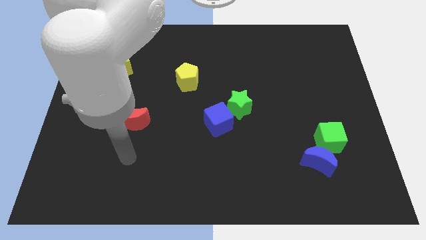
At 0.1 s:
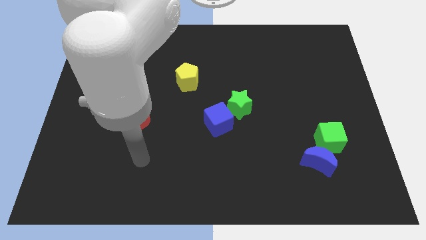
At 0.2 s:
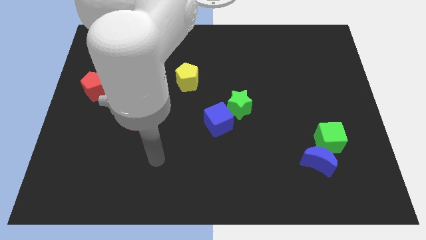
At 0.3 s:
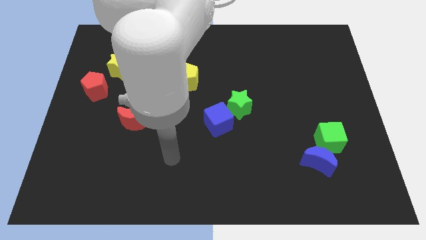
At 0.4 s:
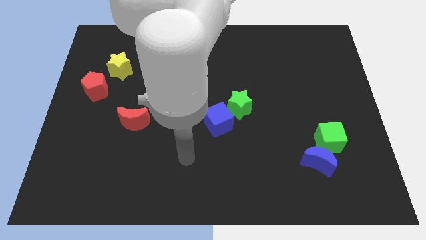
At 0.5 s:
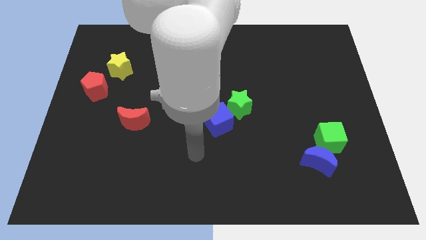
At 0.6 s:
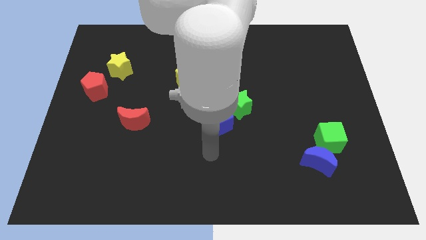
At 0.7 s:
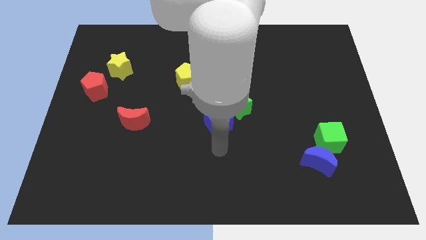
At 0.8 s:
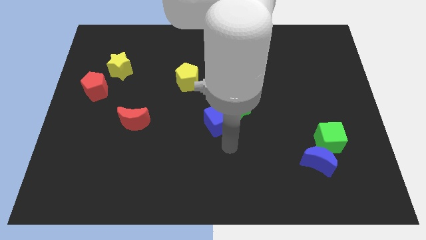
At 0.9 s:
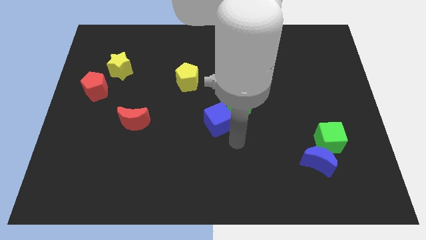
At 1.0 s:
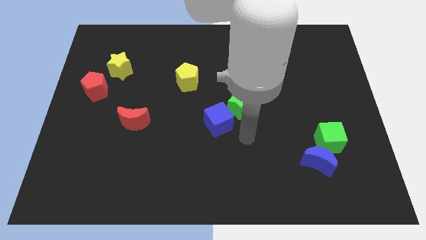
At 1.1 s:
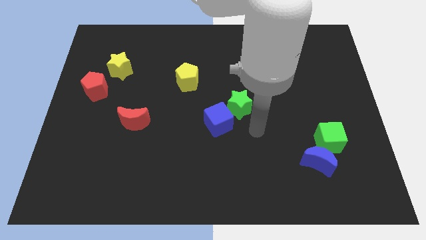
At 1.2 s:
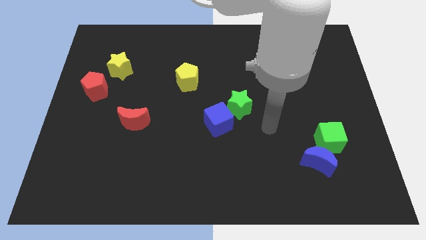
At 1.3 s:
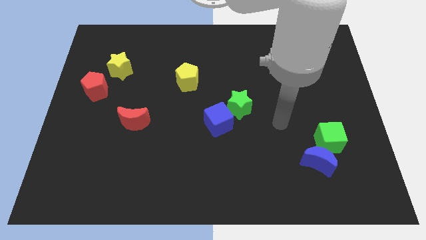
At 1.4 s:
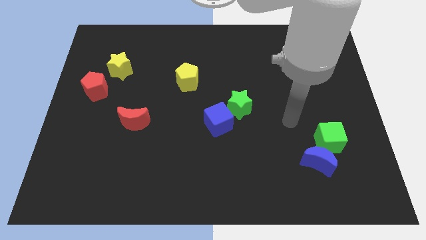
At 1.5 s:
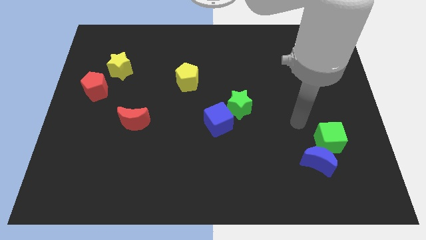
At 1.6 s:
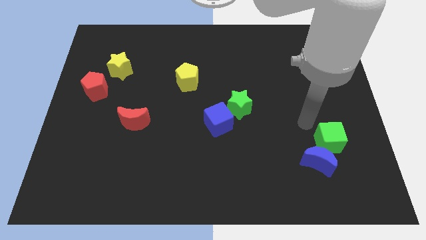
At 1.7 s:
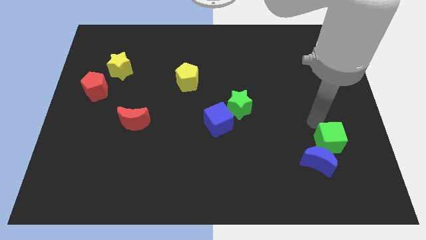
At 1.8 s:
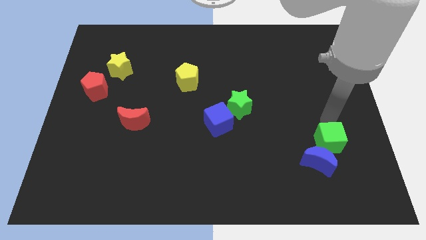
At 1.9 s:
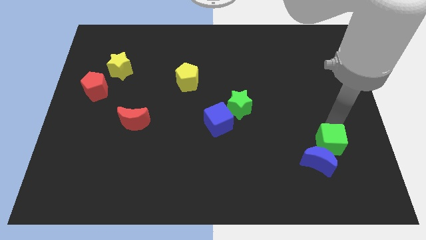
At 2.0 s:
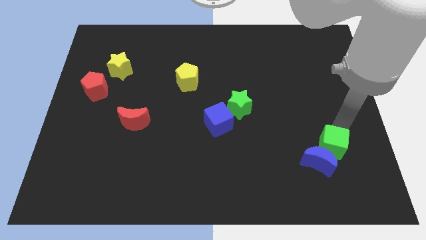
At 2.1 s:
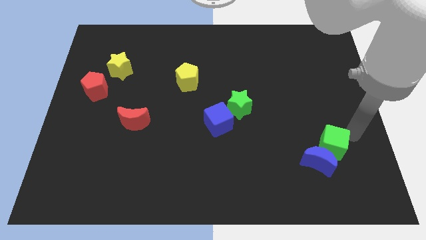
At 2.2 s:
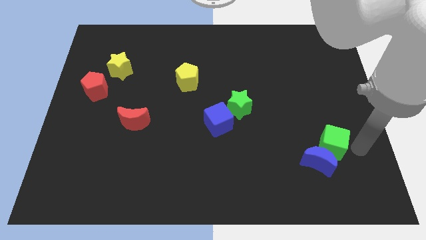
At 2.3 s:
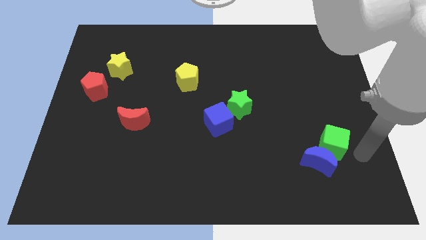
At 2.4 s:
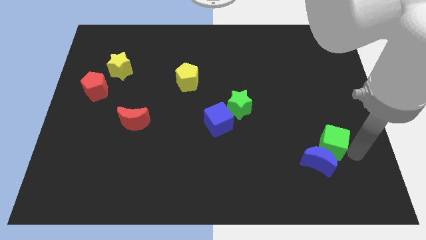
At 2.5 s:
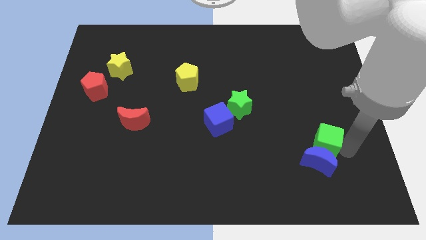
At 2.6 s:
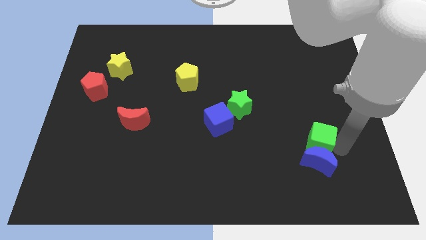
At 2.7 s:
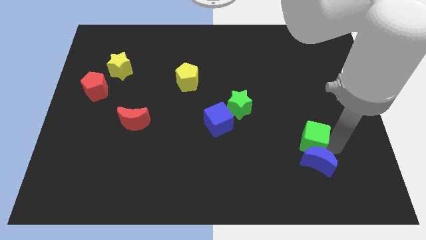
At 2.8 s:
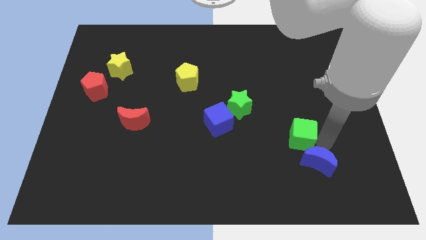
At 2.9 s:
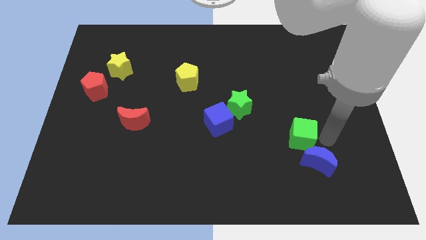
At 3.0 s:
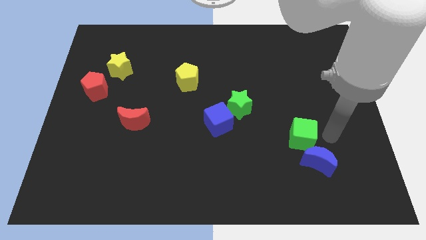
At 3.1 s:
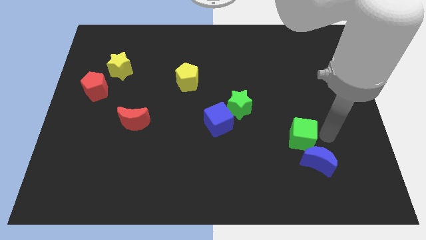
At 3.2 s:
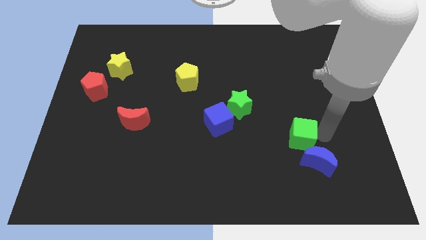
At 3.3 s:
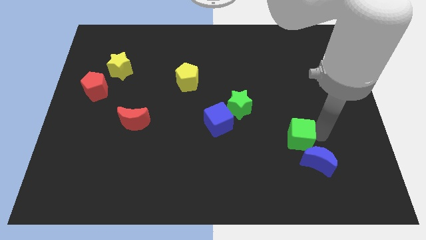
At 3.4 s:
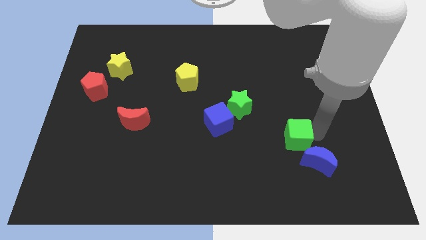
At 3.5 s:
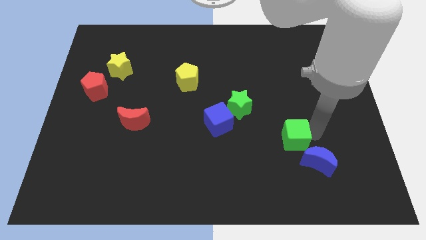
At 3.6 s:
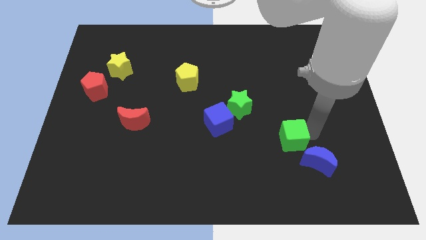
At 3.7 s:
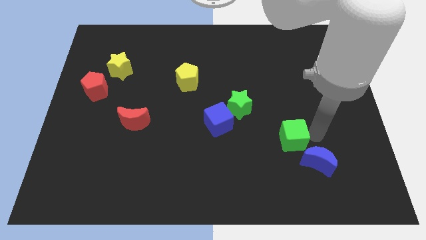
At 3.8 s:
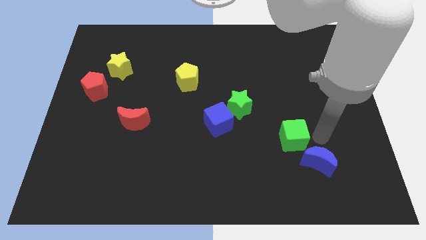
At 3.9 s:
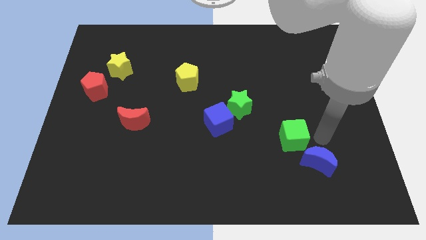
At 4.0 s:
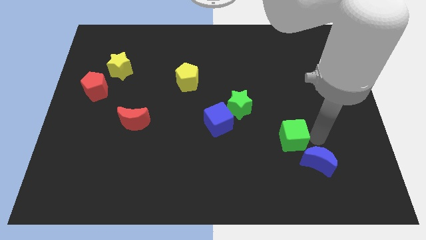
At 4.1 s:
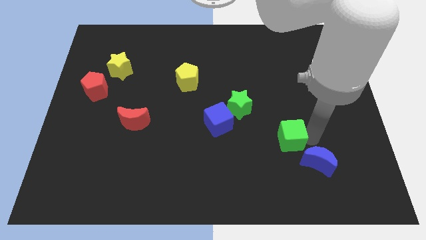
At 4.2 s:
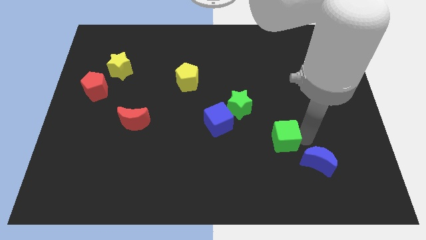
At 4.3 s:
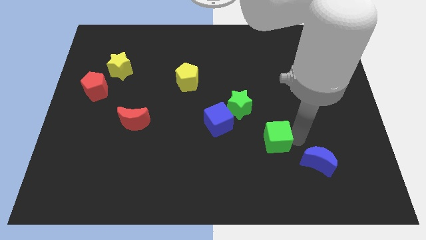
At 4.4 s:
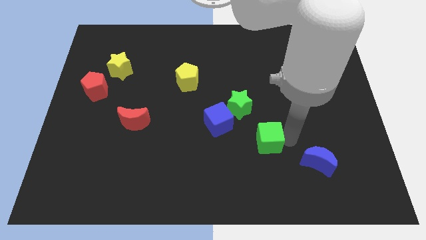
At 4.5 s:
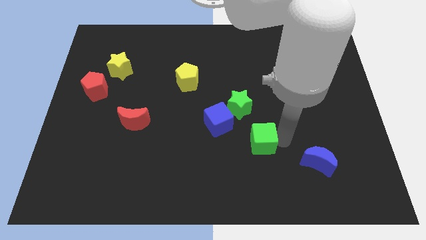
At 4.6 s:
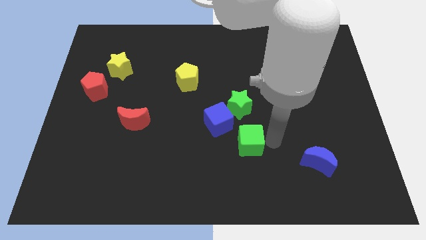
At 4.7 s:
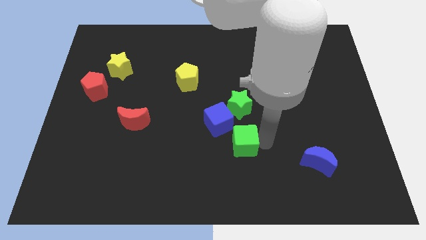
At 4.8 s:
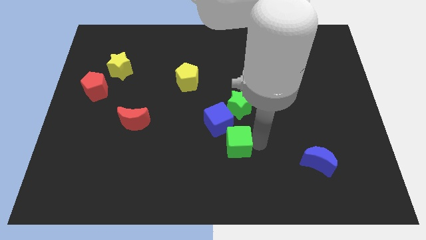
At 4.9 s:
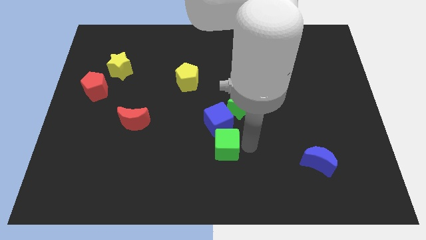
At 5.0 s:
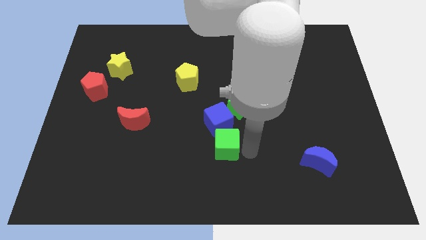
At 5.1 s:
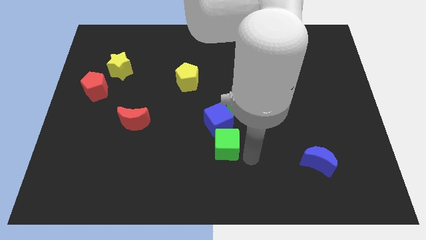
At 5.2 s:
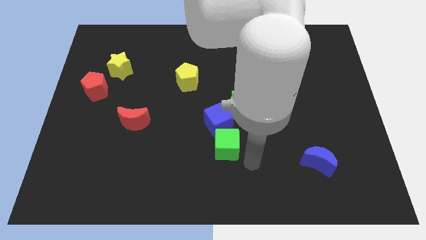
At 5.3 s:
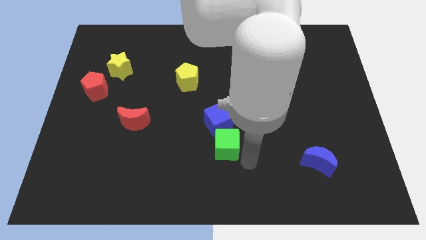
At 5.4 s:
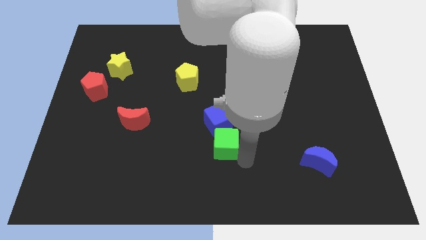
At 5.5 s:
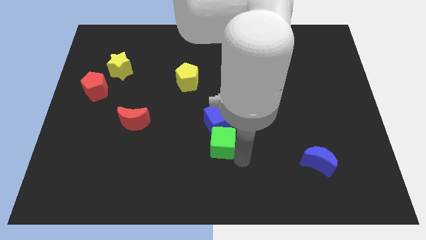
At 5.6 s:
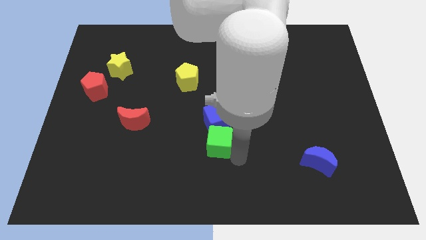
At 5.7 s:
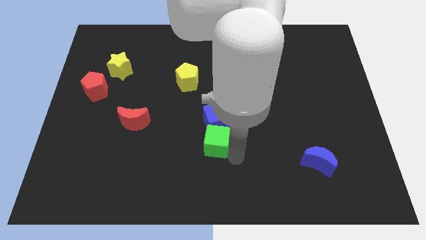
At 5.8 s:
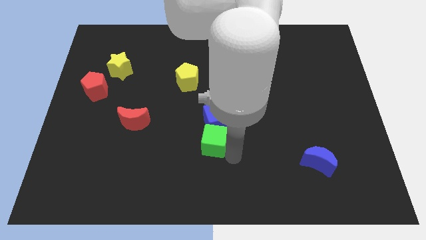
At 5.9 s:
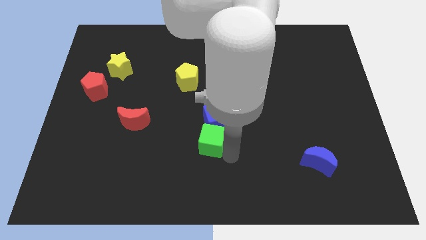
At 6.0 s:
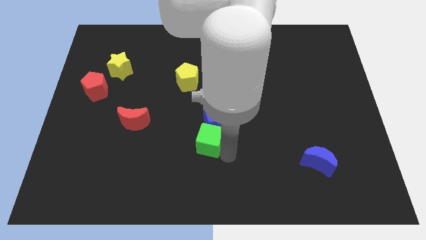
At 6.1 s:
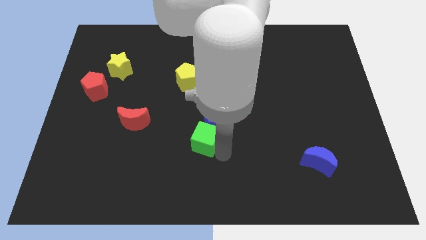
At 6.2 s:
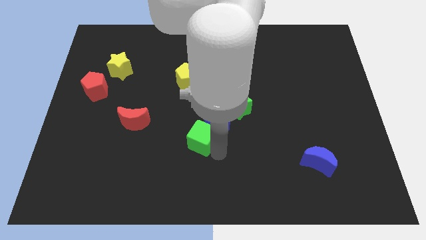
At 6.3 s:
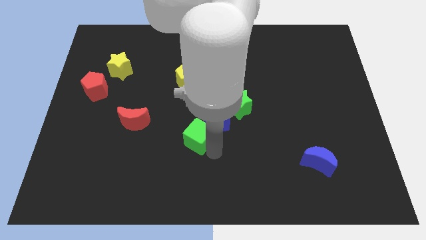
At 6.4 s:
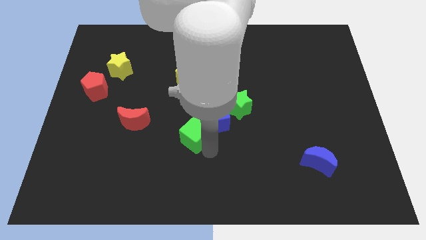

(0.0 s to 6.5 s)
push the green cube to the left side of the blue cube
